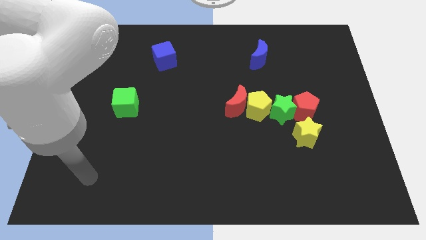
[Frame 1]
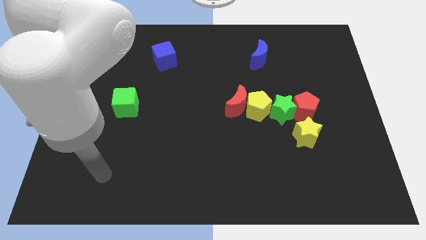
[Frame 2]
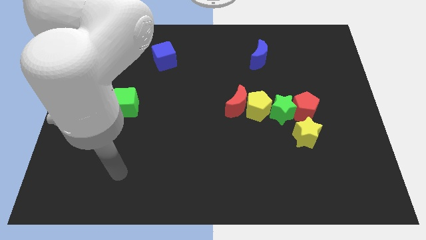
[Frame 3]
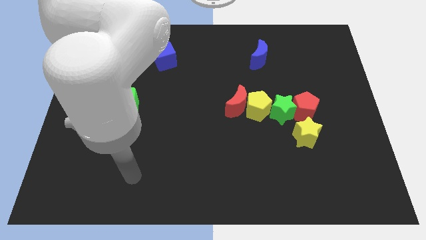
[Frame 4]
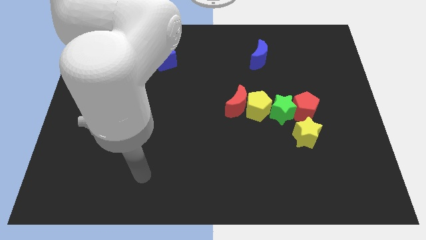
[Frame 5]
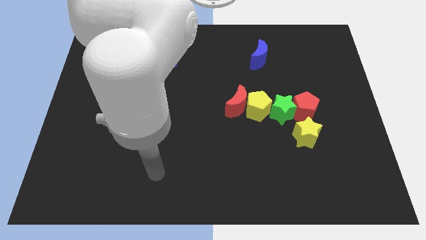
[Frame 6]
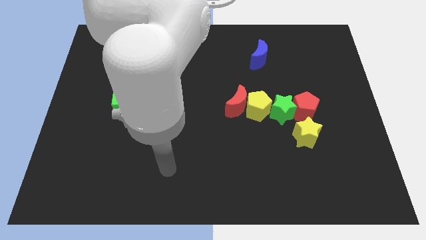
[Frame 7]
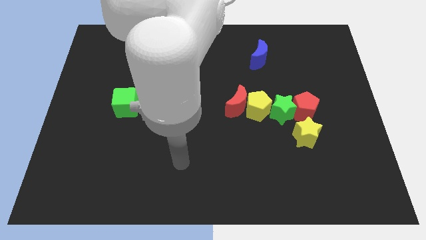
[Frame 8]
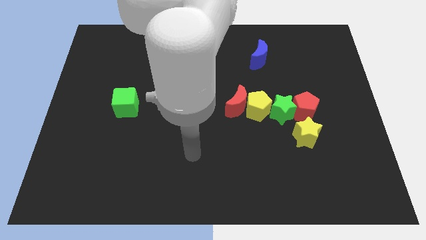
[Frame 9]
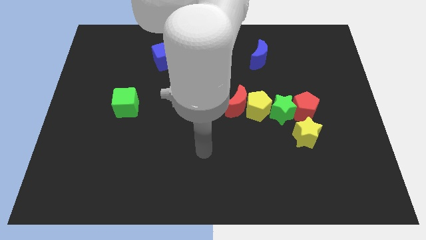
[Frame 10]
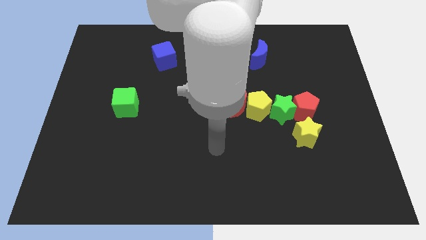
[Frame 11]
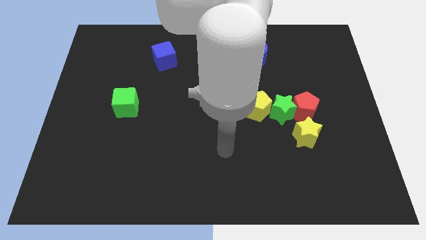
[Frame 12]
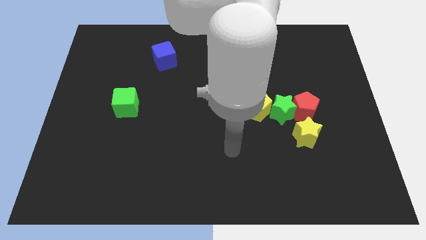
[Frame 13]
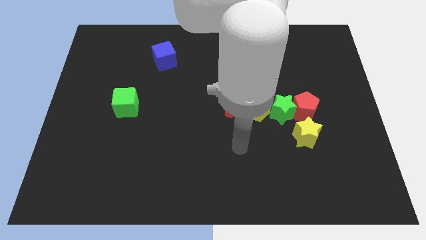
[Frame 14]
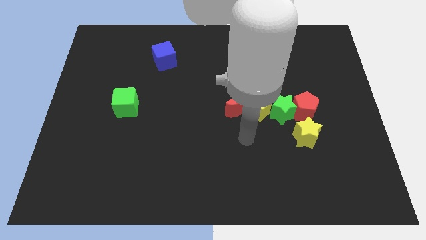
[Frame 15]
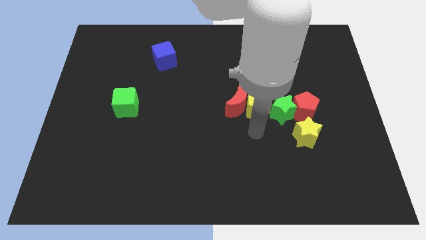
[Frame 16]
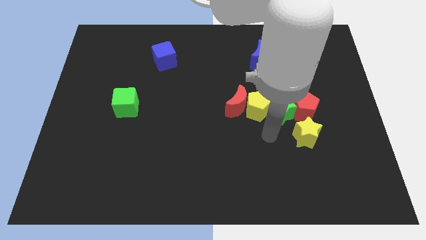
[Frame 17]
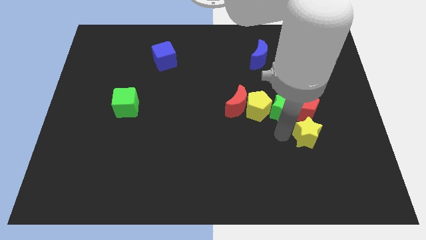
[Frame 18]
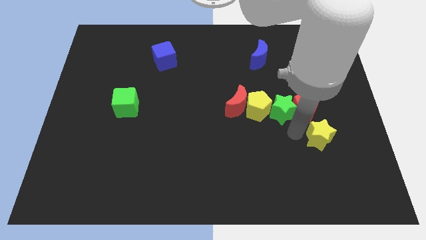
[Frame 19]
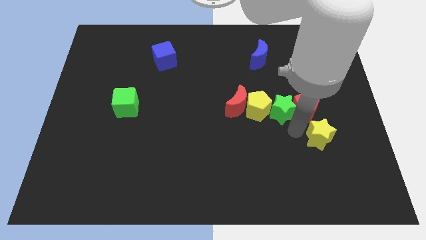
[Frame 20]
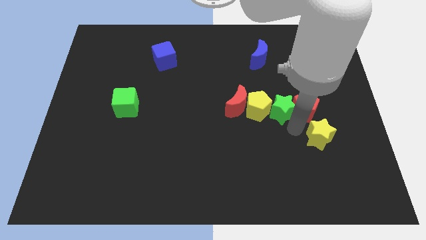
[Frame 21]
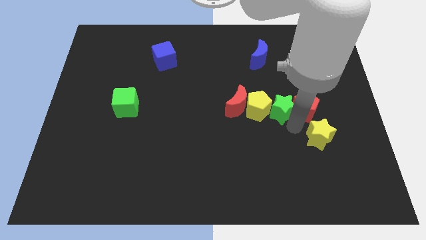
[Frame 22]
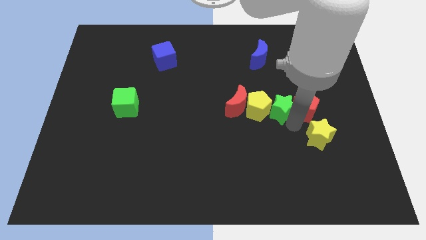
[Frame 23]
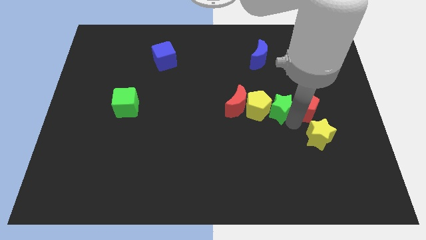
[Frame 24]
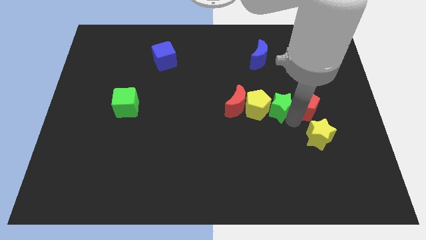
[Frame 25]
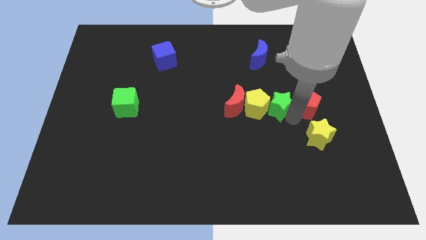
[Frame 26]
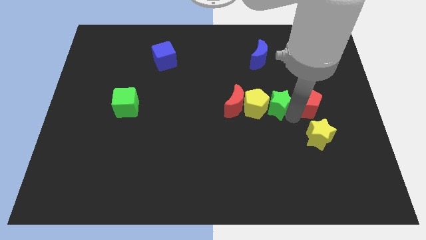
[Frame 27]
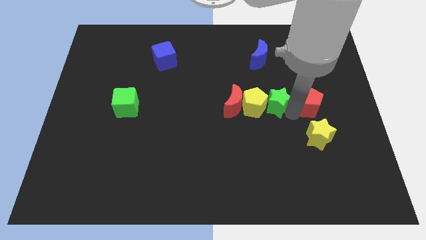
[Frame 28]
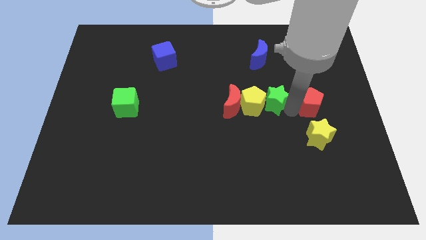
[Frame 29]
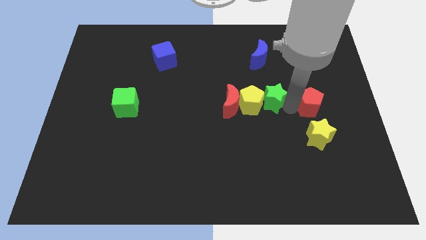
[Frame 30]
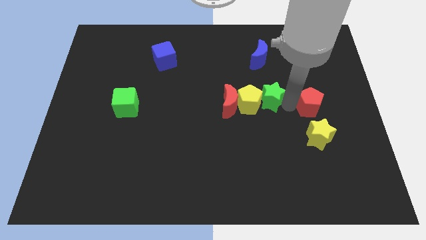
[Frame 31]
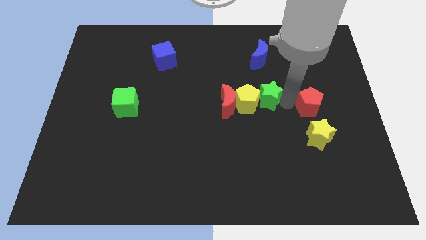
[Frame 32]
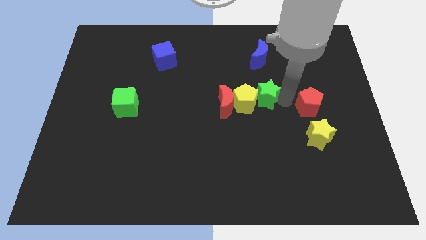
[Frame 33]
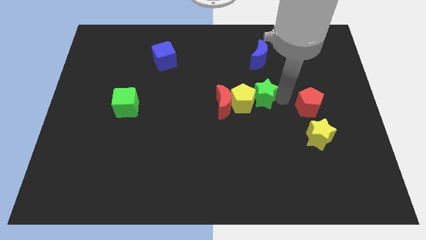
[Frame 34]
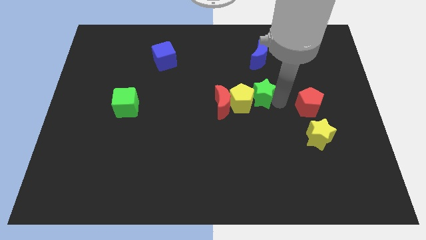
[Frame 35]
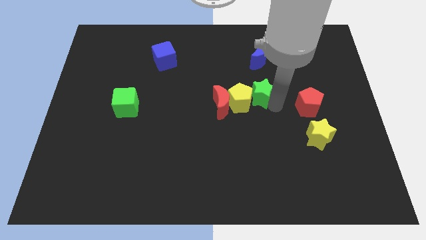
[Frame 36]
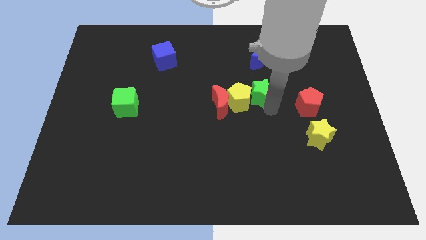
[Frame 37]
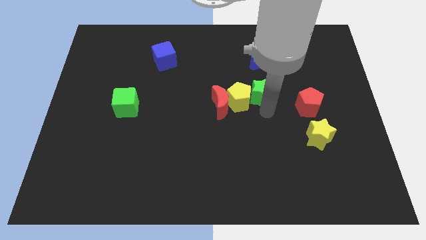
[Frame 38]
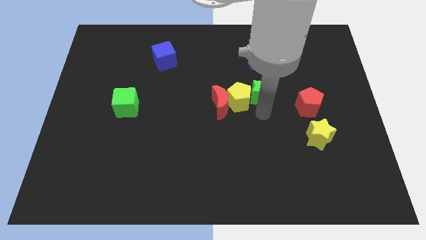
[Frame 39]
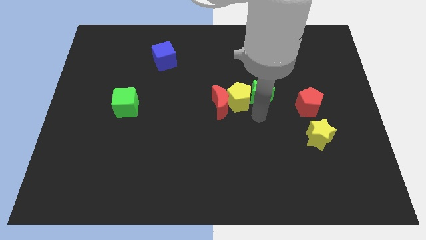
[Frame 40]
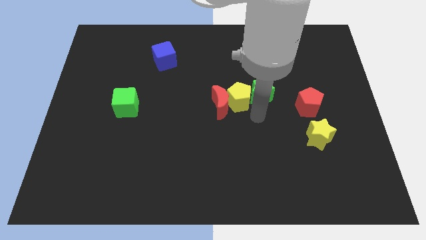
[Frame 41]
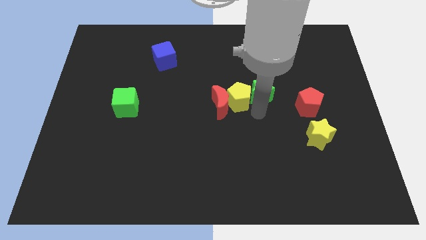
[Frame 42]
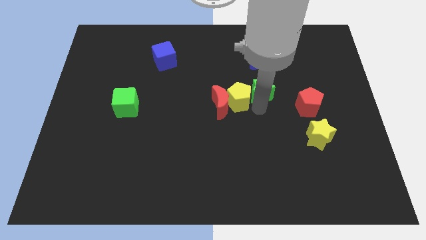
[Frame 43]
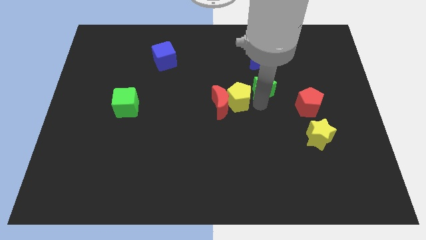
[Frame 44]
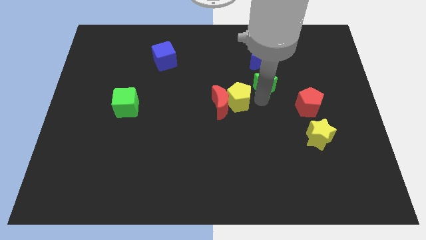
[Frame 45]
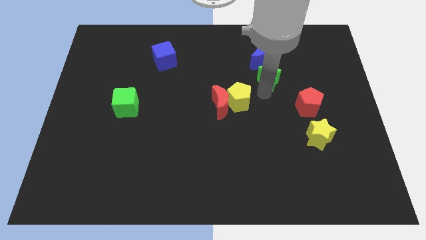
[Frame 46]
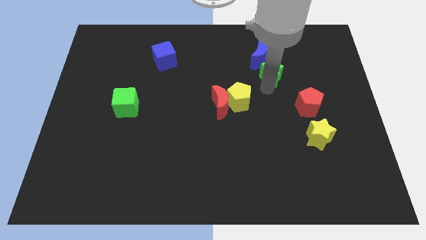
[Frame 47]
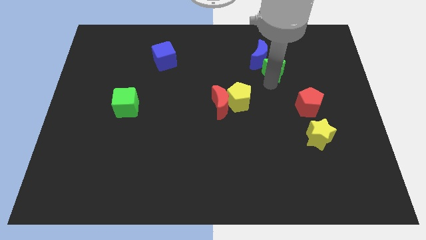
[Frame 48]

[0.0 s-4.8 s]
slide the green star towards the blue moon

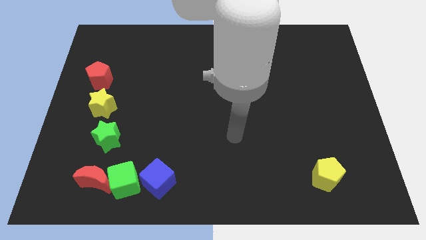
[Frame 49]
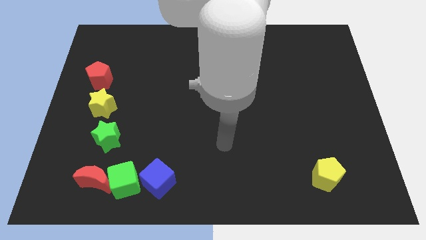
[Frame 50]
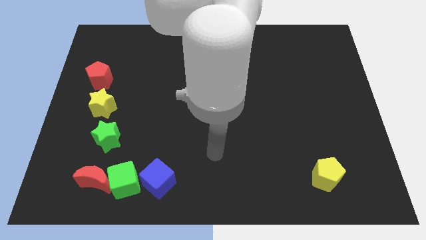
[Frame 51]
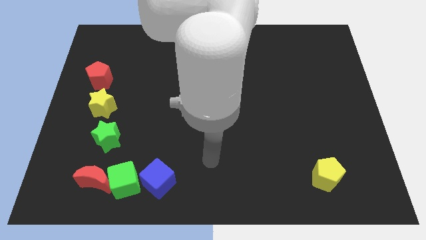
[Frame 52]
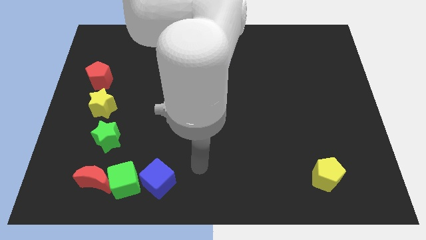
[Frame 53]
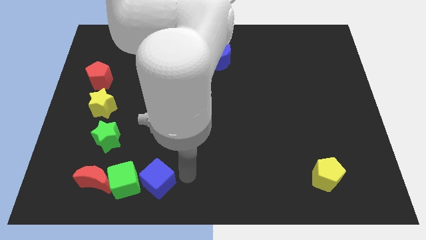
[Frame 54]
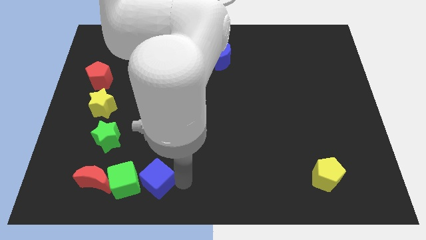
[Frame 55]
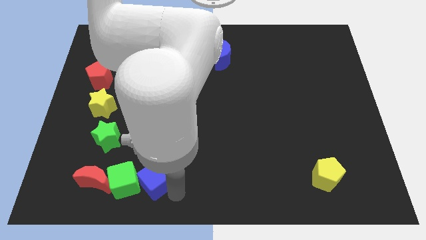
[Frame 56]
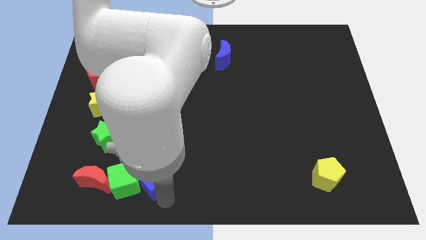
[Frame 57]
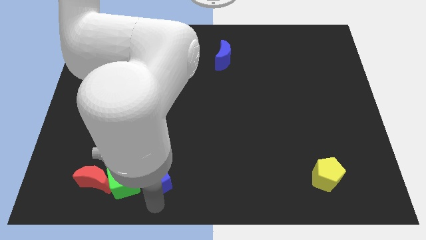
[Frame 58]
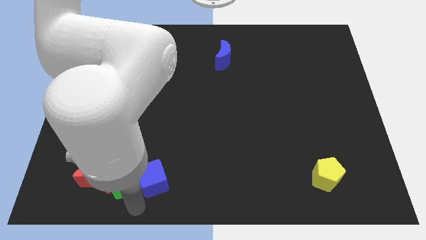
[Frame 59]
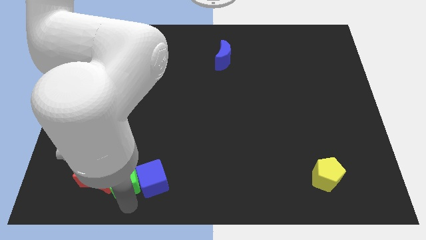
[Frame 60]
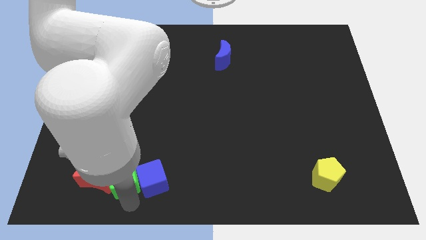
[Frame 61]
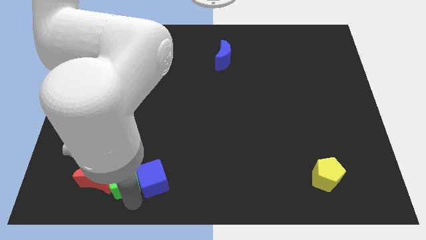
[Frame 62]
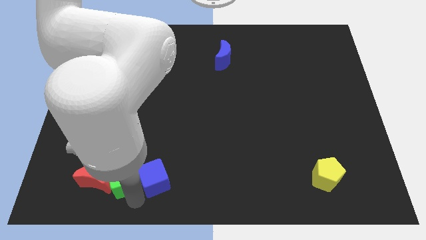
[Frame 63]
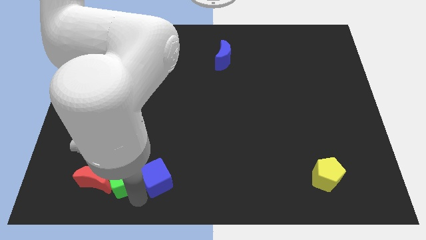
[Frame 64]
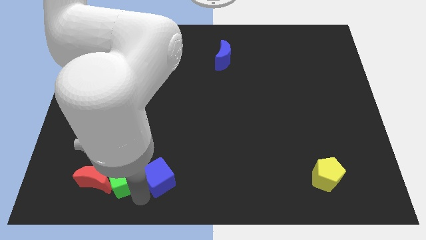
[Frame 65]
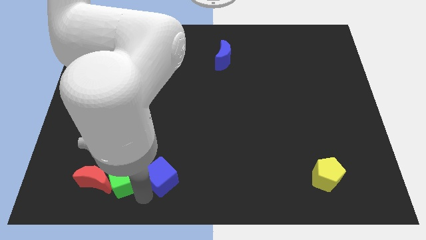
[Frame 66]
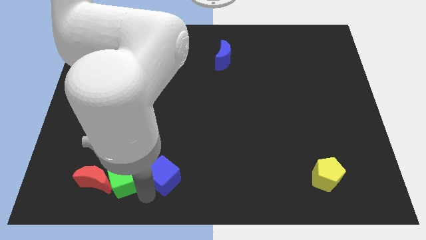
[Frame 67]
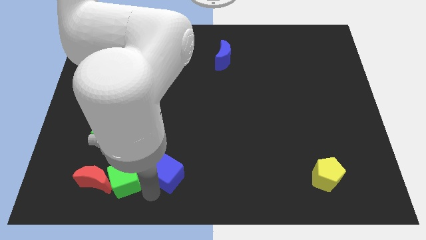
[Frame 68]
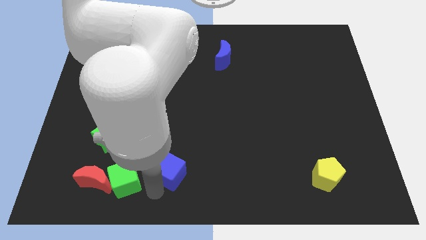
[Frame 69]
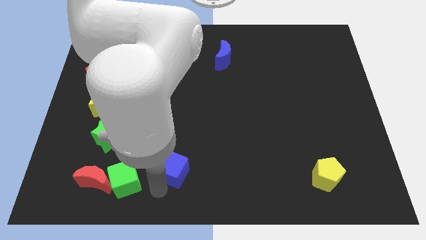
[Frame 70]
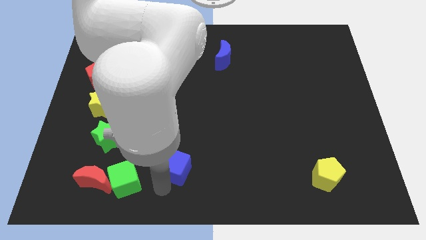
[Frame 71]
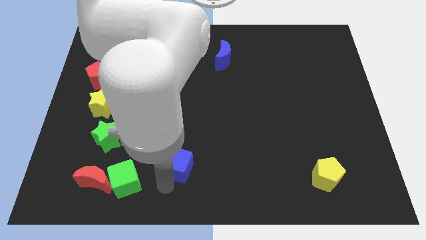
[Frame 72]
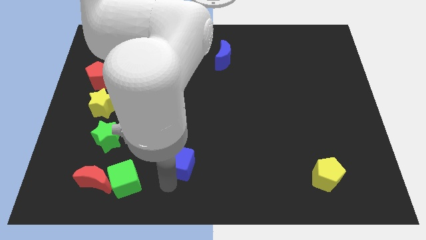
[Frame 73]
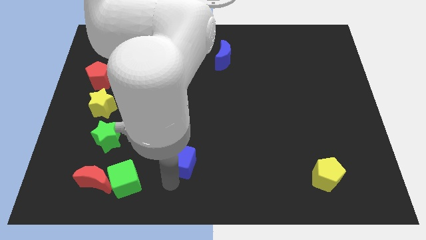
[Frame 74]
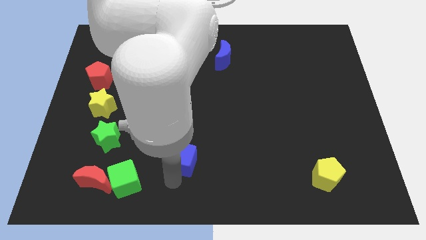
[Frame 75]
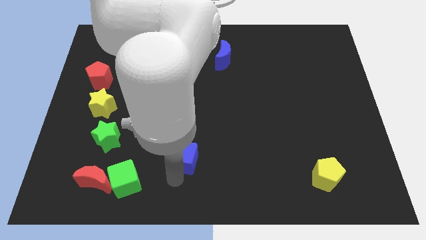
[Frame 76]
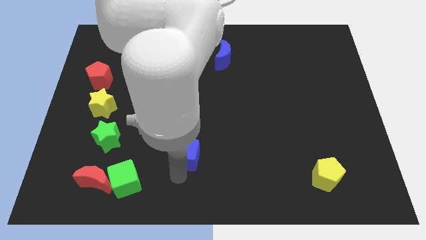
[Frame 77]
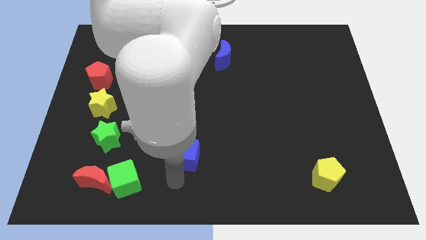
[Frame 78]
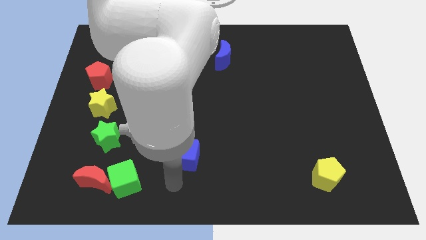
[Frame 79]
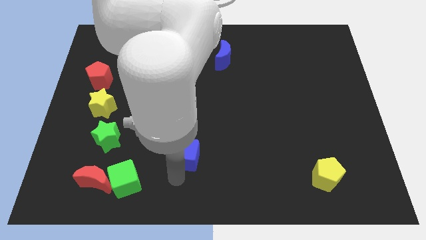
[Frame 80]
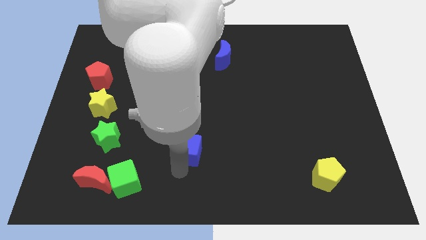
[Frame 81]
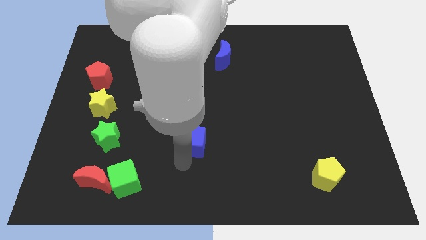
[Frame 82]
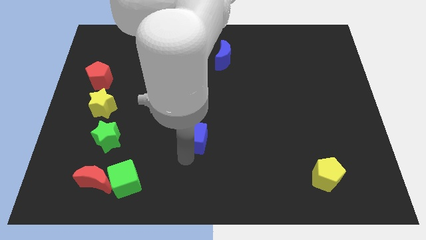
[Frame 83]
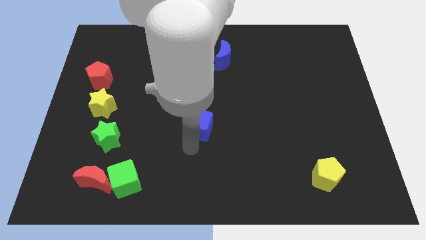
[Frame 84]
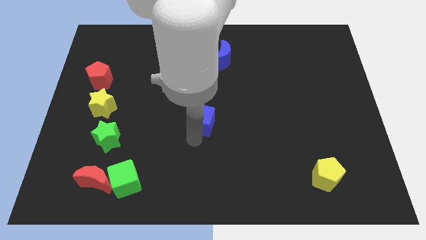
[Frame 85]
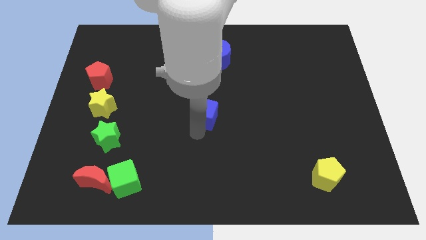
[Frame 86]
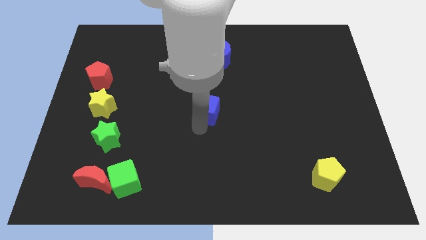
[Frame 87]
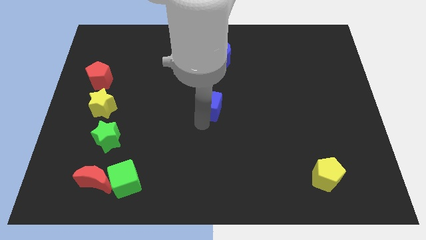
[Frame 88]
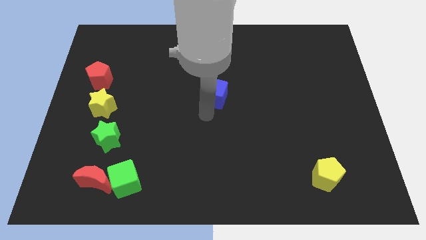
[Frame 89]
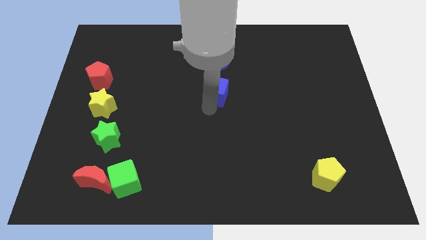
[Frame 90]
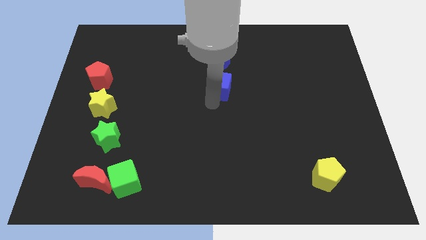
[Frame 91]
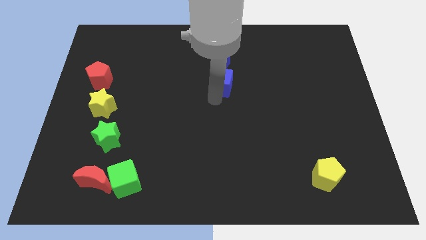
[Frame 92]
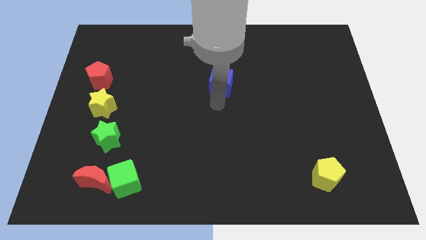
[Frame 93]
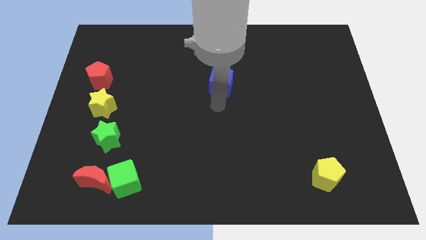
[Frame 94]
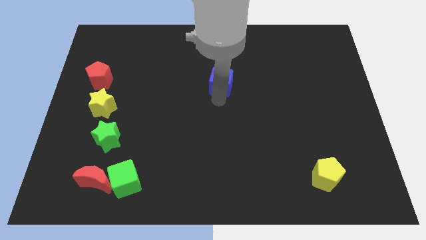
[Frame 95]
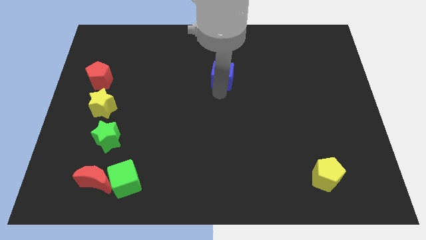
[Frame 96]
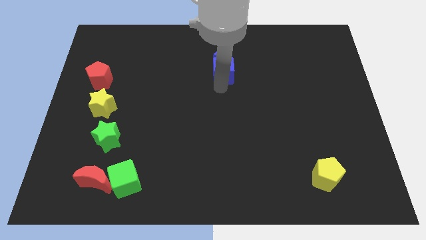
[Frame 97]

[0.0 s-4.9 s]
slide the blue cube to the blue moon
